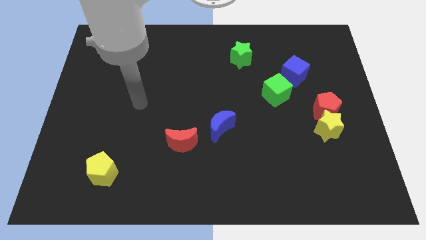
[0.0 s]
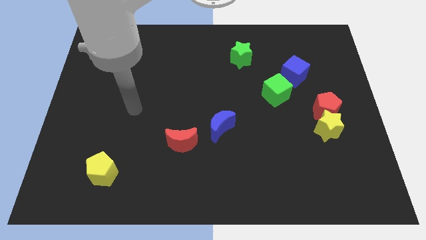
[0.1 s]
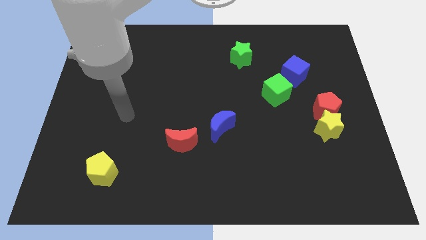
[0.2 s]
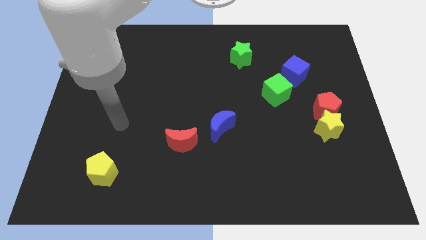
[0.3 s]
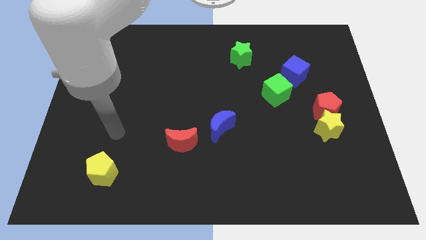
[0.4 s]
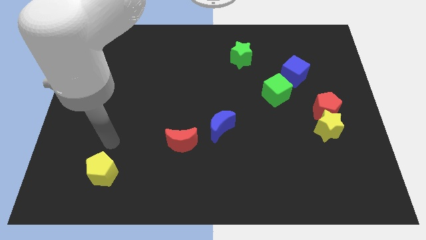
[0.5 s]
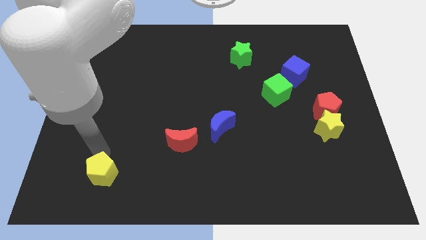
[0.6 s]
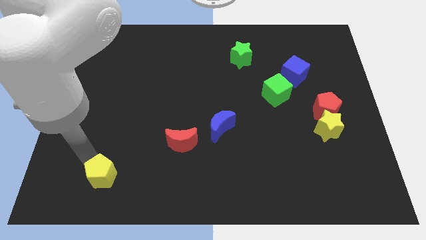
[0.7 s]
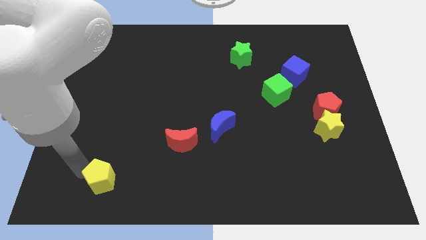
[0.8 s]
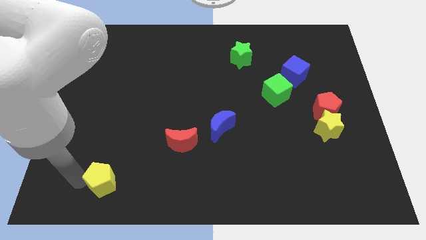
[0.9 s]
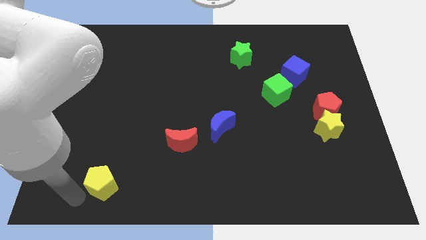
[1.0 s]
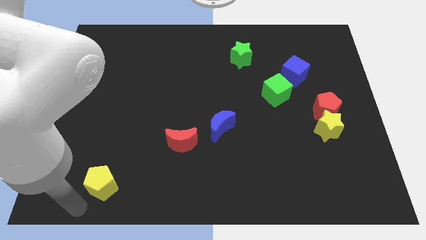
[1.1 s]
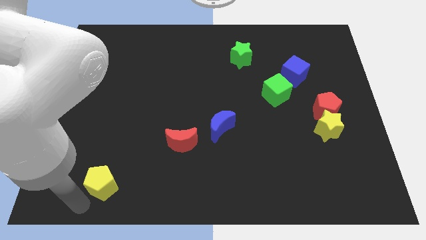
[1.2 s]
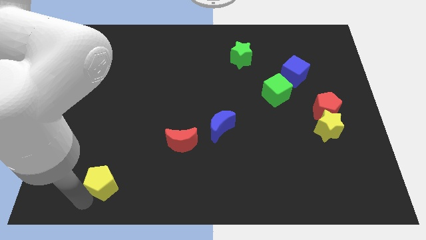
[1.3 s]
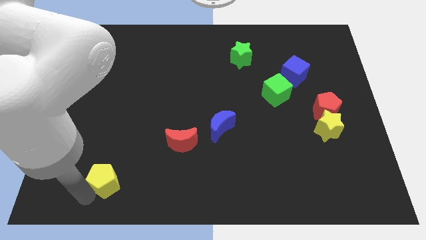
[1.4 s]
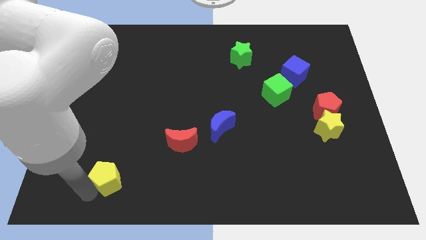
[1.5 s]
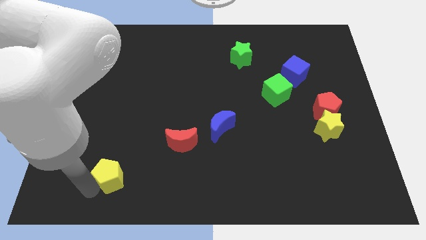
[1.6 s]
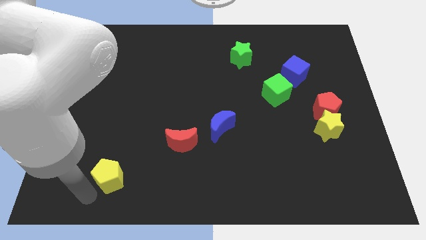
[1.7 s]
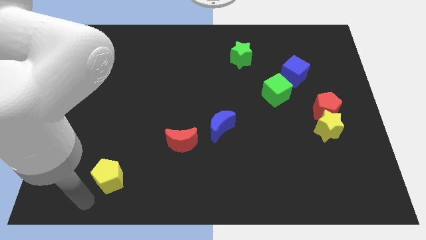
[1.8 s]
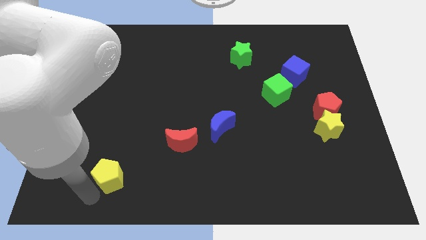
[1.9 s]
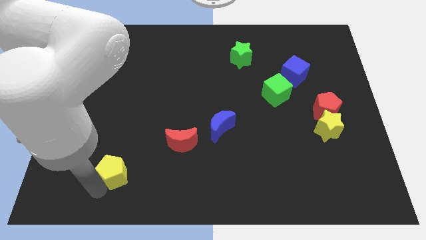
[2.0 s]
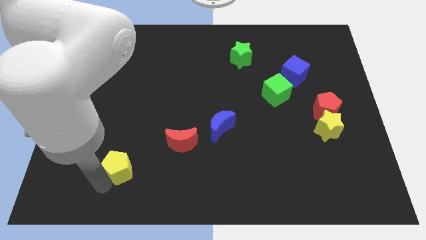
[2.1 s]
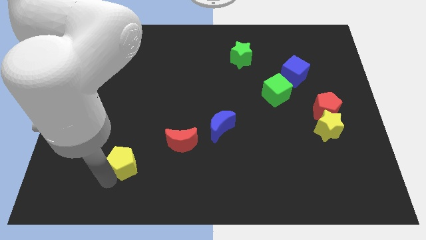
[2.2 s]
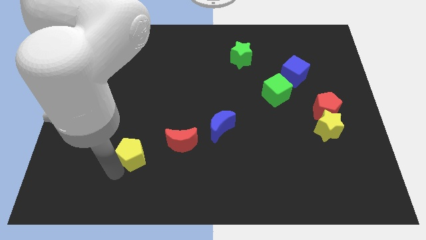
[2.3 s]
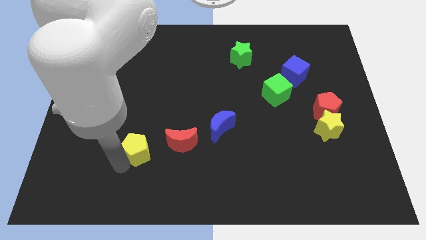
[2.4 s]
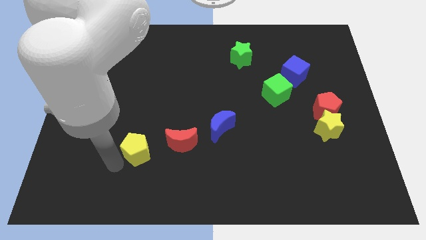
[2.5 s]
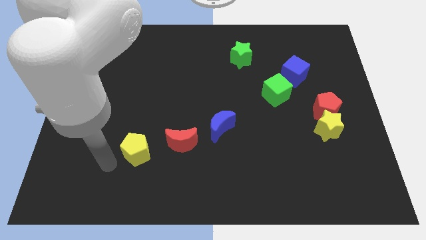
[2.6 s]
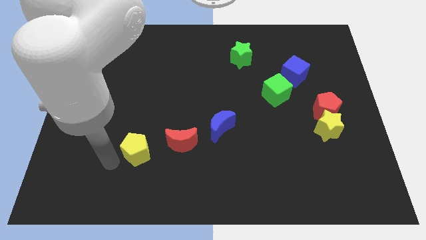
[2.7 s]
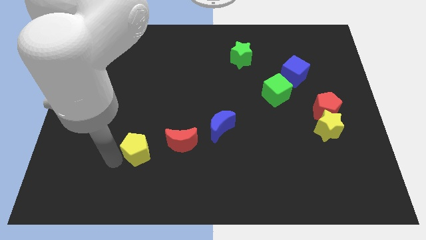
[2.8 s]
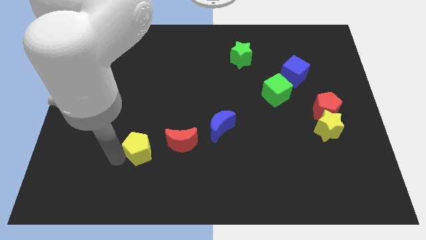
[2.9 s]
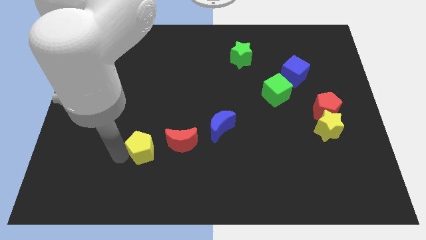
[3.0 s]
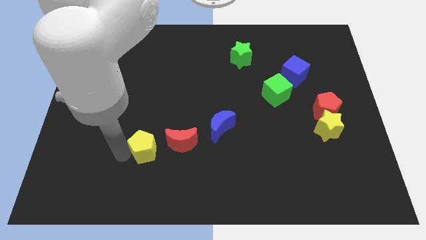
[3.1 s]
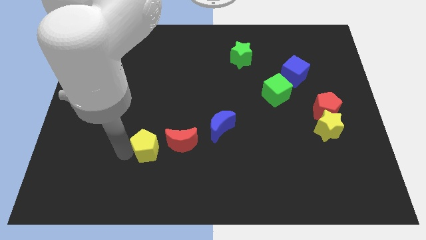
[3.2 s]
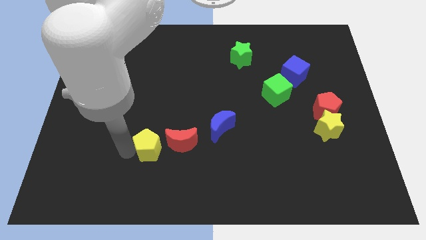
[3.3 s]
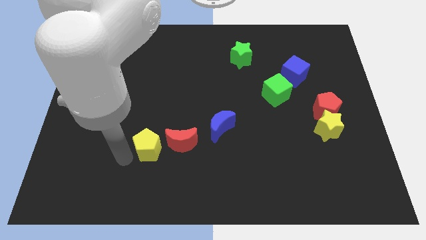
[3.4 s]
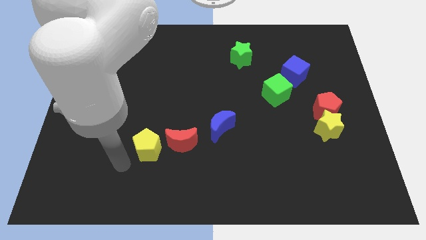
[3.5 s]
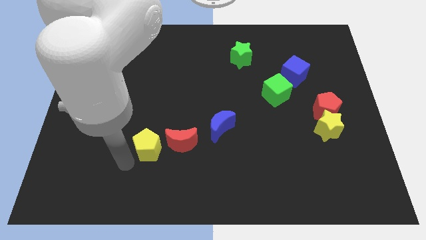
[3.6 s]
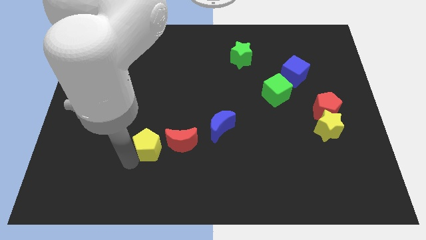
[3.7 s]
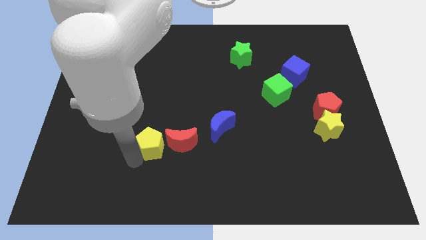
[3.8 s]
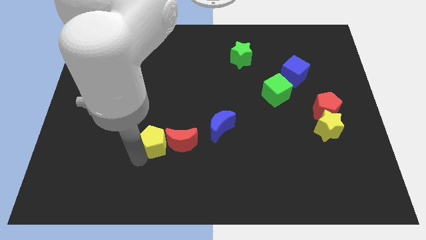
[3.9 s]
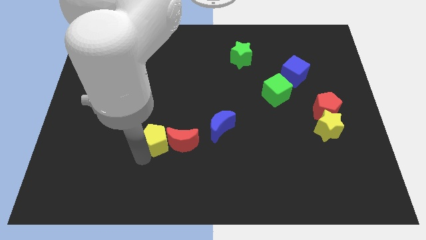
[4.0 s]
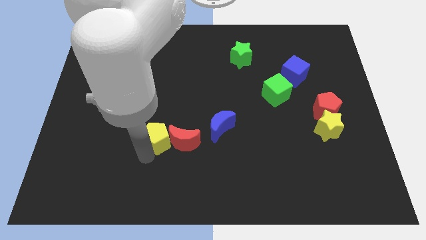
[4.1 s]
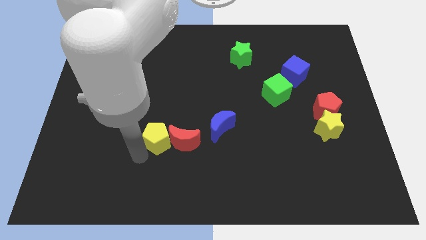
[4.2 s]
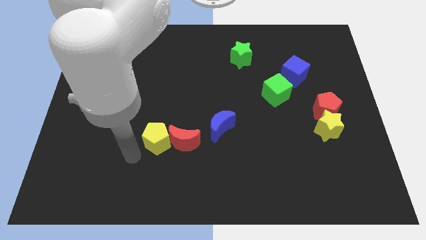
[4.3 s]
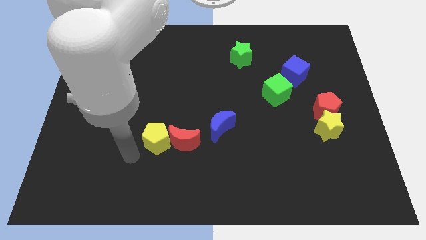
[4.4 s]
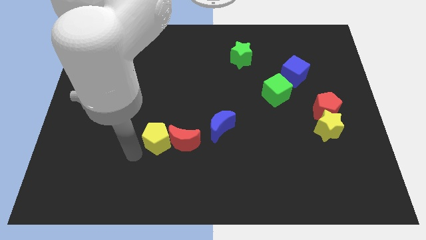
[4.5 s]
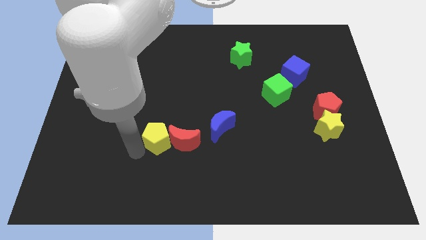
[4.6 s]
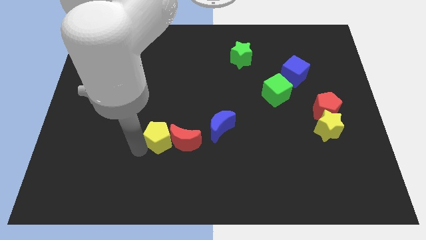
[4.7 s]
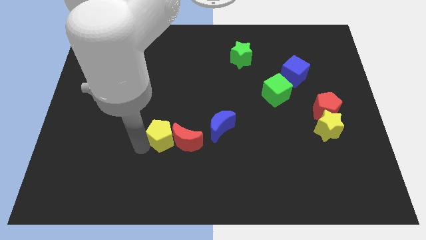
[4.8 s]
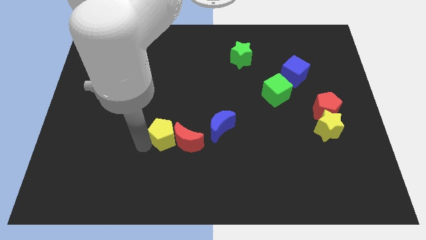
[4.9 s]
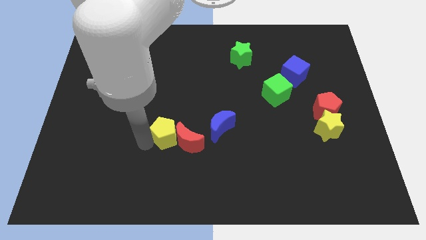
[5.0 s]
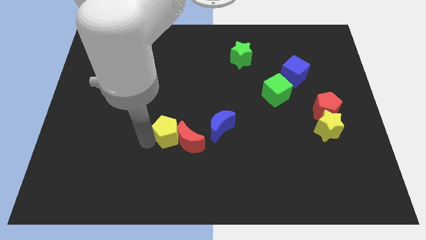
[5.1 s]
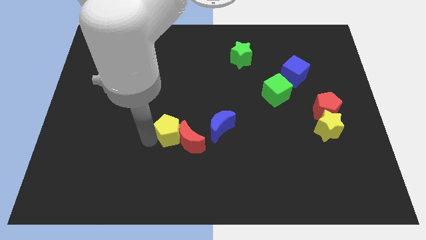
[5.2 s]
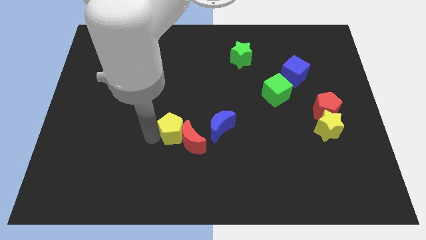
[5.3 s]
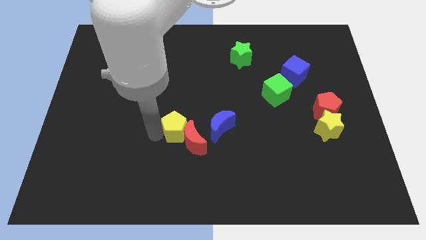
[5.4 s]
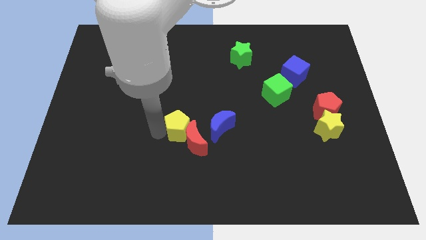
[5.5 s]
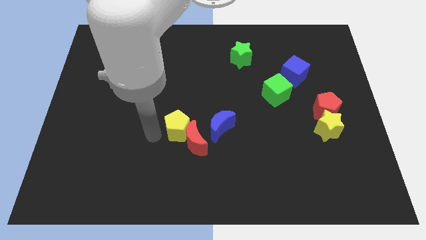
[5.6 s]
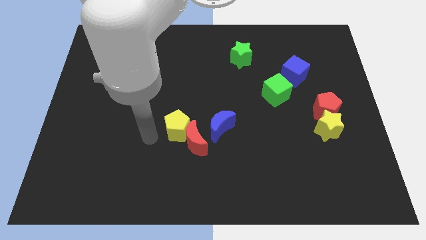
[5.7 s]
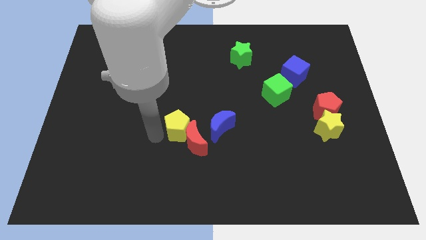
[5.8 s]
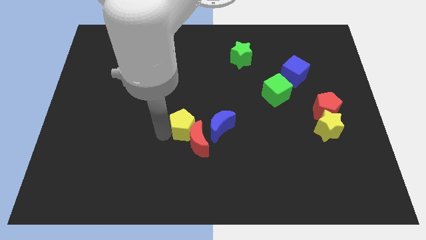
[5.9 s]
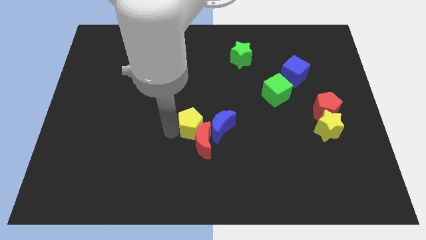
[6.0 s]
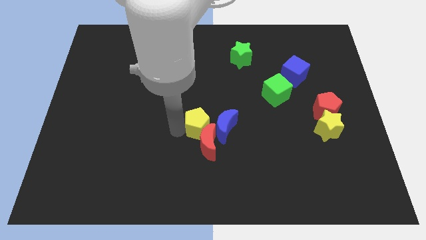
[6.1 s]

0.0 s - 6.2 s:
move the yellow pentagon to the blue moon

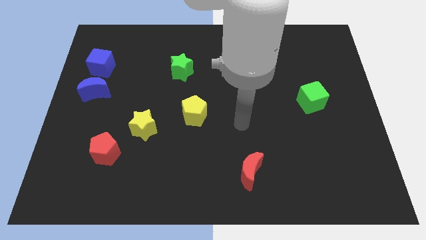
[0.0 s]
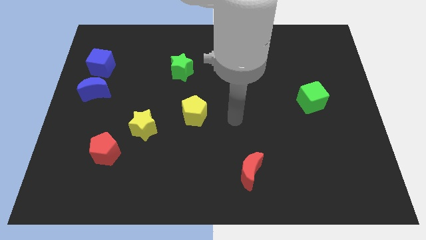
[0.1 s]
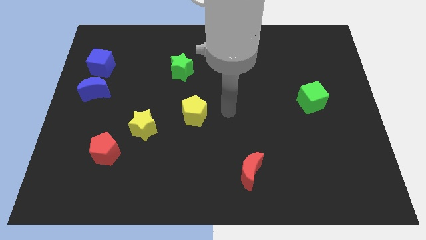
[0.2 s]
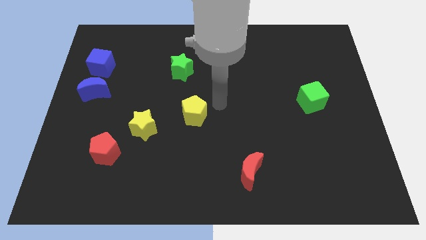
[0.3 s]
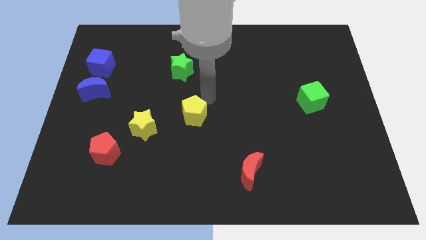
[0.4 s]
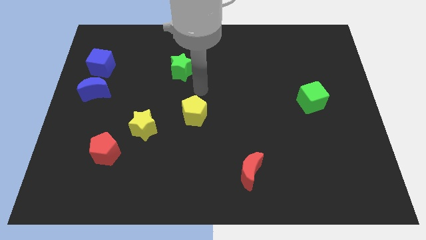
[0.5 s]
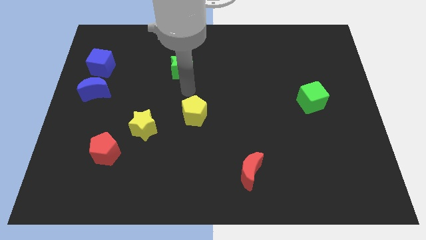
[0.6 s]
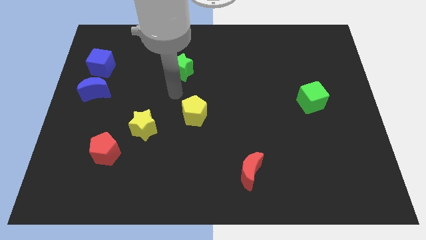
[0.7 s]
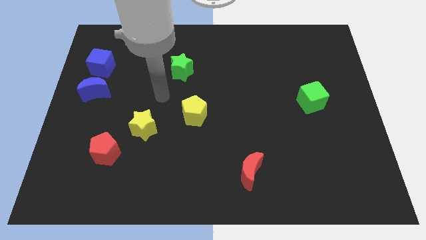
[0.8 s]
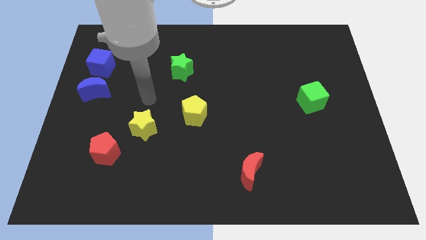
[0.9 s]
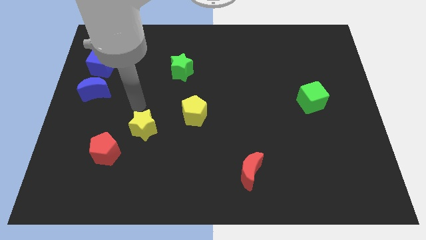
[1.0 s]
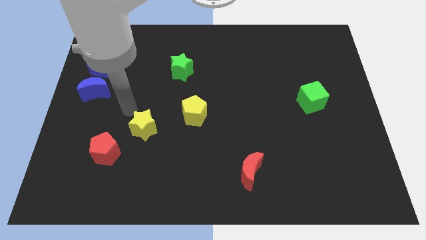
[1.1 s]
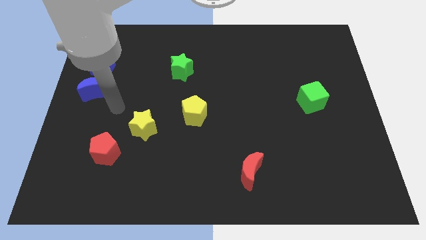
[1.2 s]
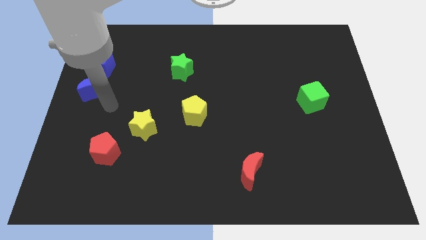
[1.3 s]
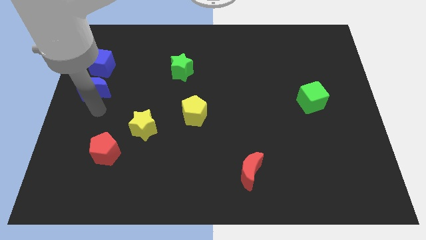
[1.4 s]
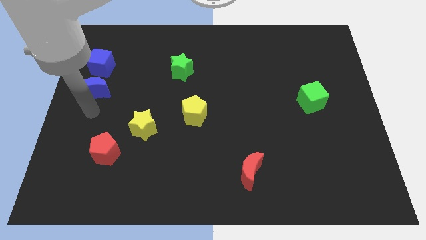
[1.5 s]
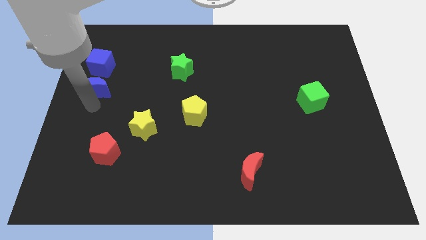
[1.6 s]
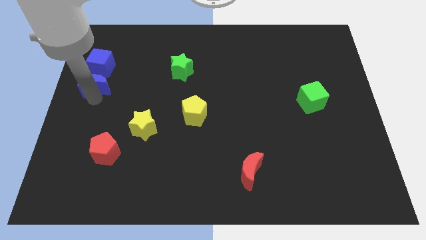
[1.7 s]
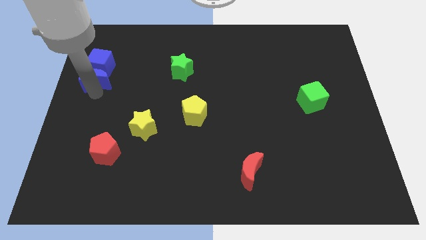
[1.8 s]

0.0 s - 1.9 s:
put the blue moon towards the blue cube

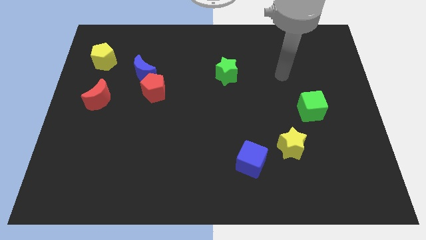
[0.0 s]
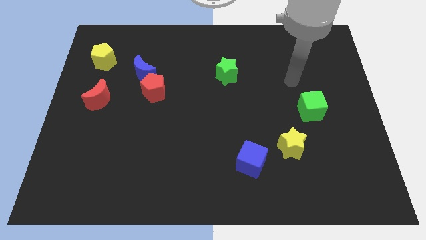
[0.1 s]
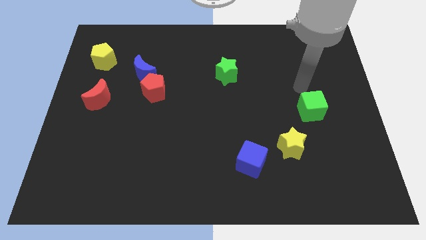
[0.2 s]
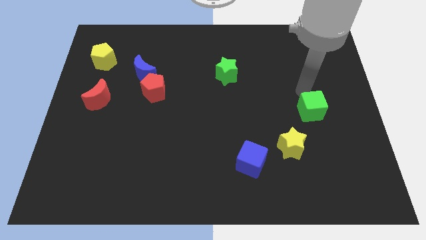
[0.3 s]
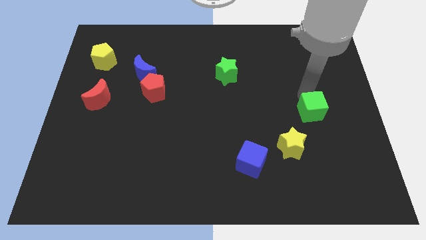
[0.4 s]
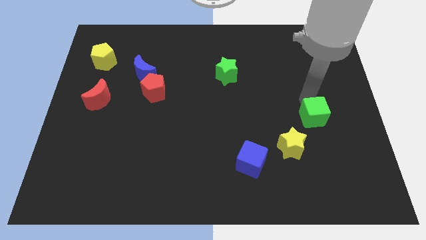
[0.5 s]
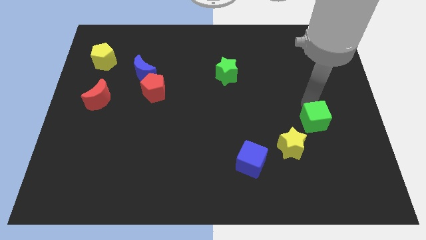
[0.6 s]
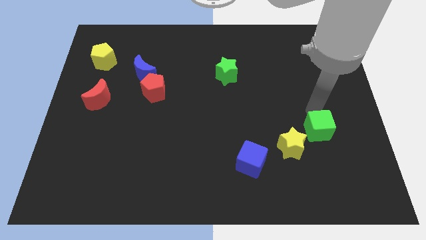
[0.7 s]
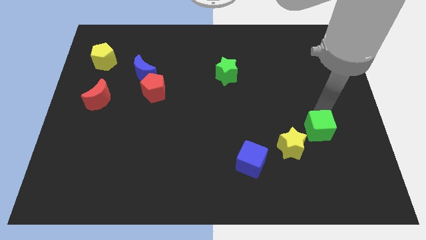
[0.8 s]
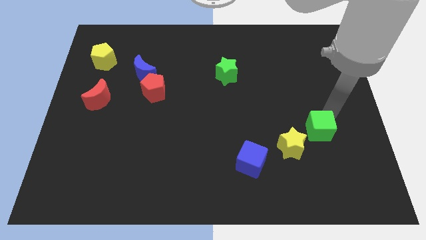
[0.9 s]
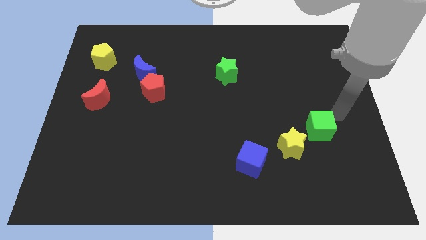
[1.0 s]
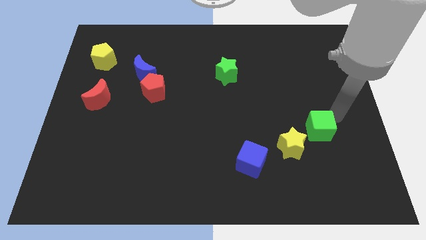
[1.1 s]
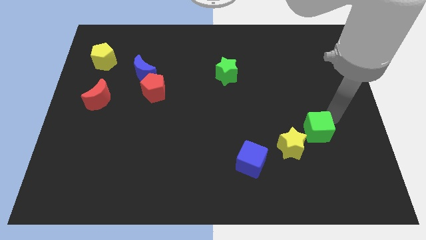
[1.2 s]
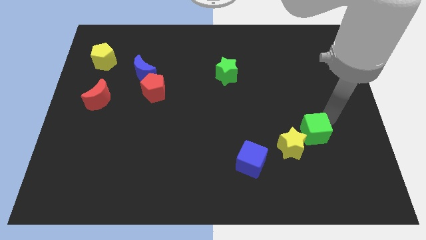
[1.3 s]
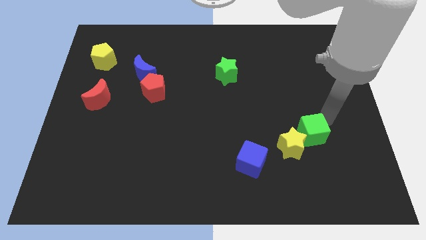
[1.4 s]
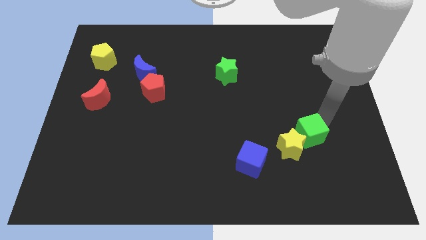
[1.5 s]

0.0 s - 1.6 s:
push the green cube to the yellow star
